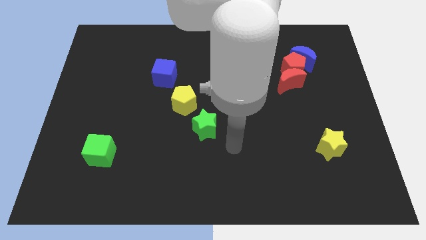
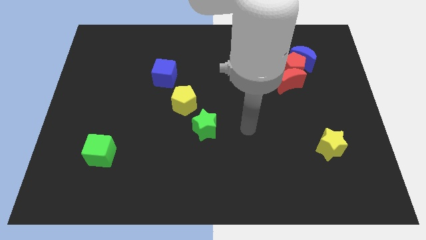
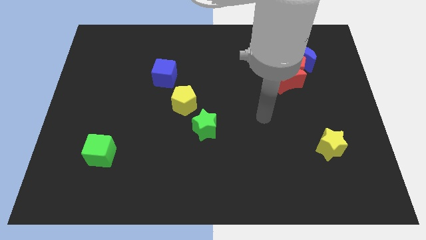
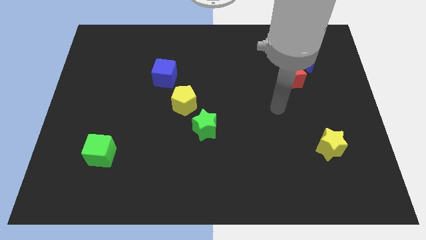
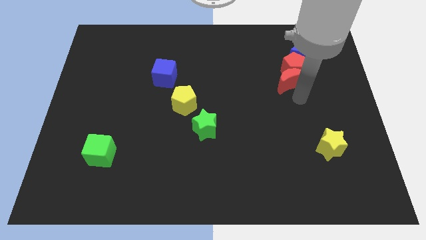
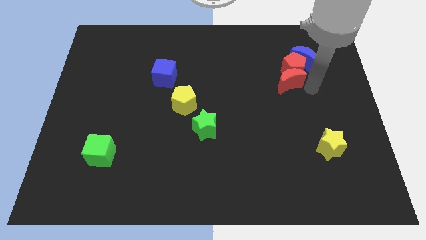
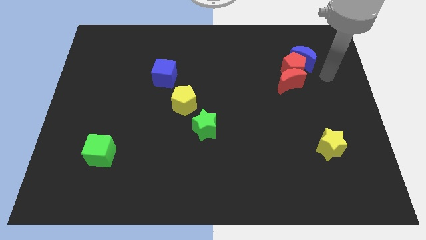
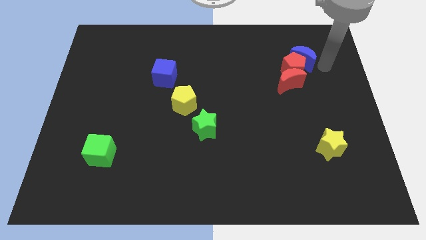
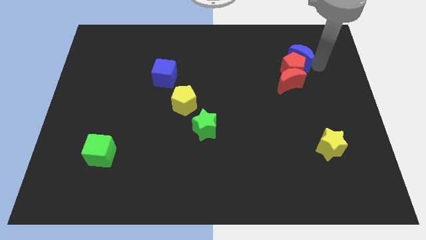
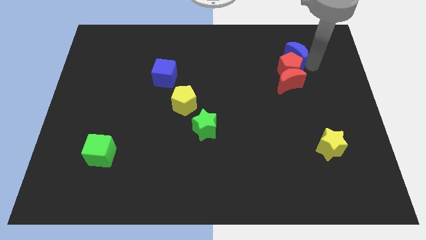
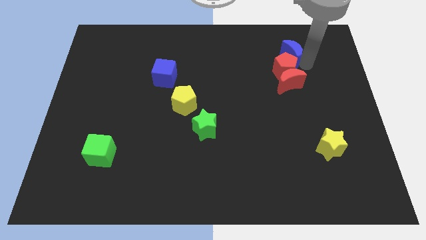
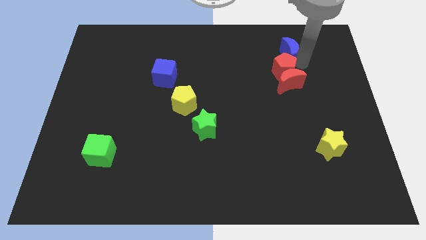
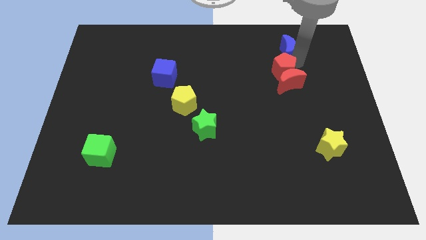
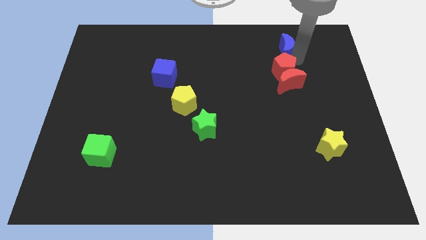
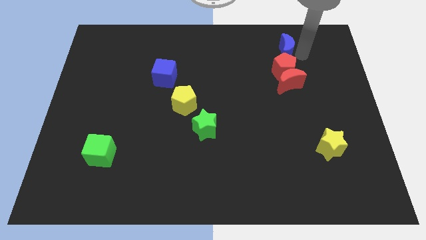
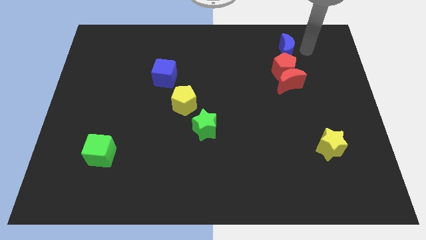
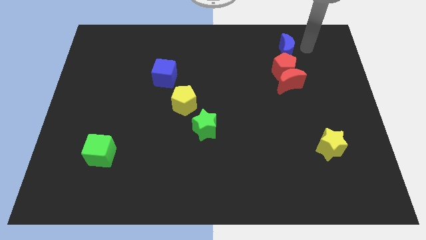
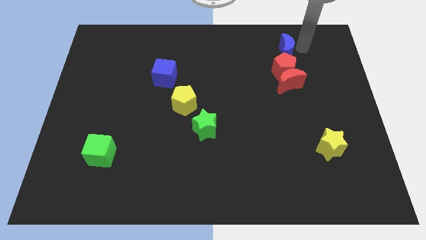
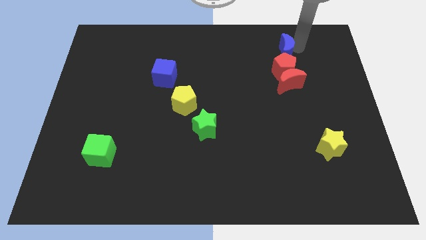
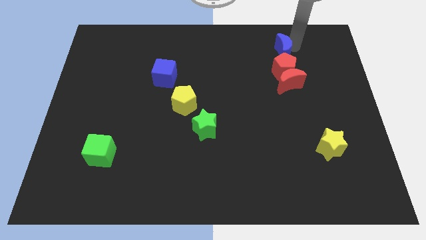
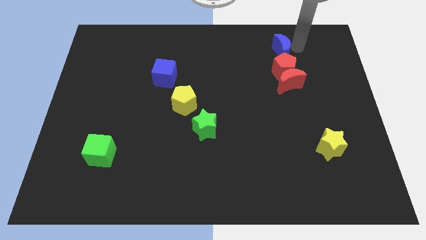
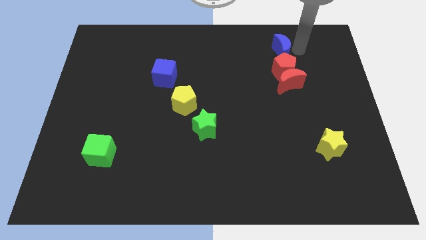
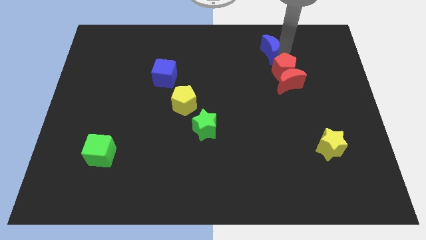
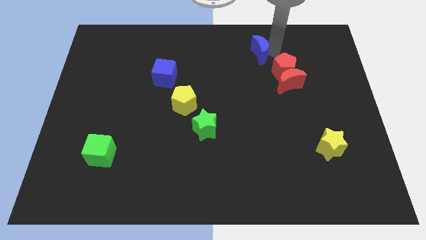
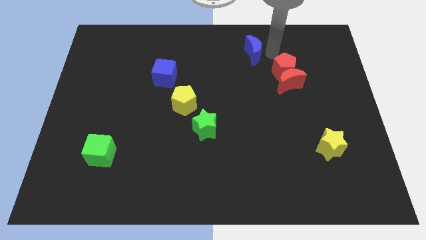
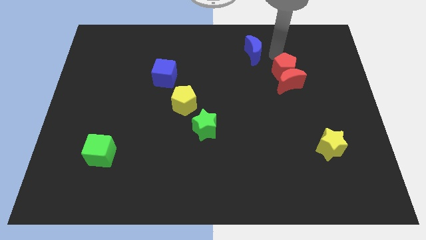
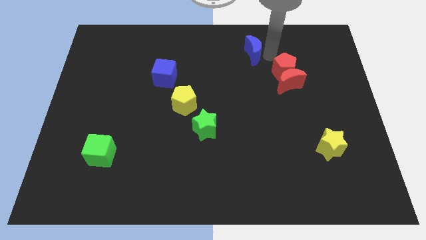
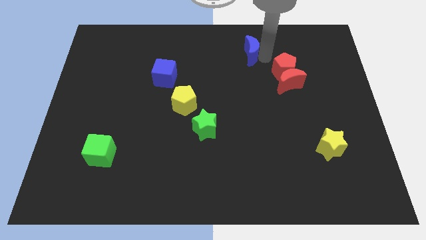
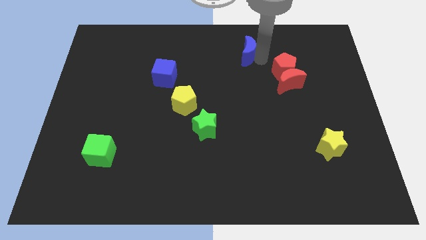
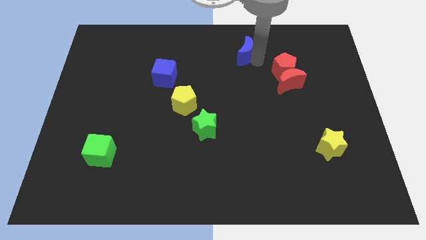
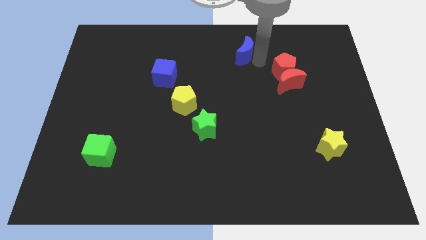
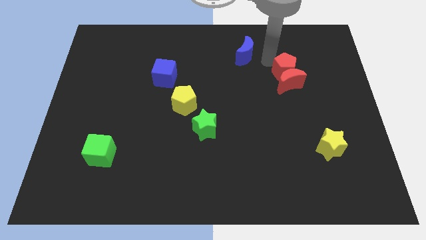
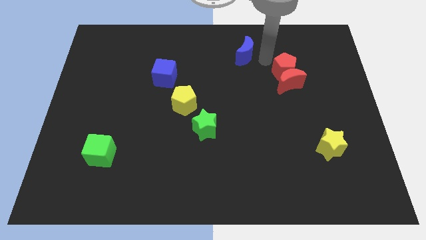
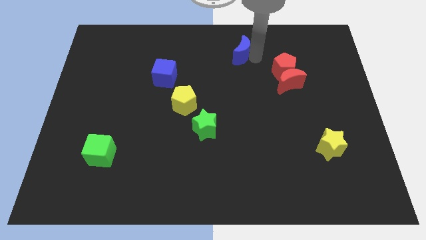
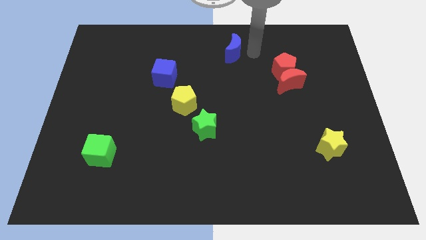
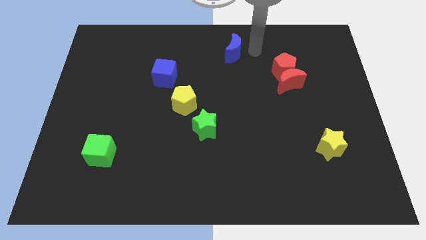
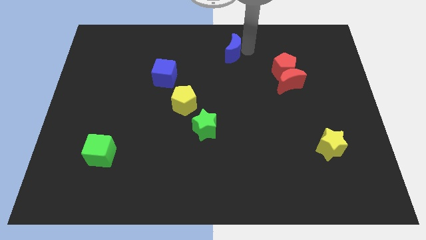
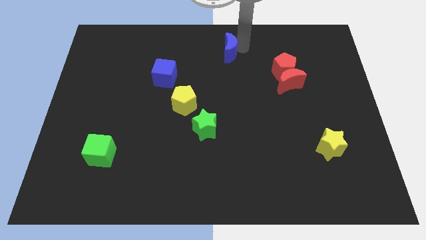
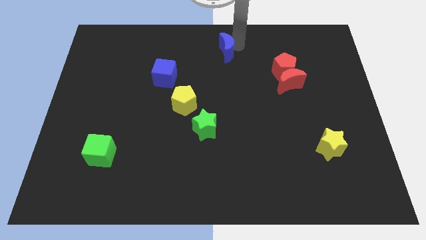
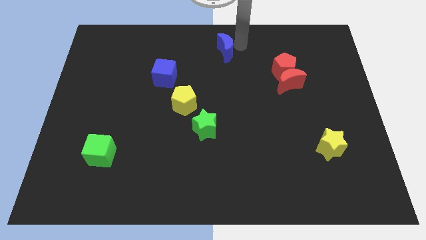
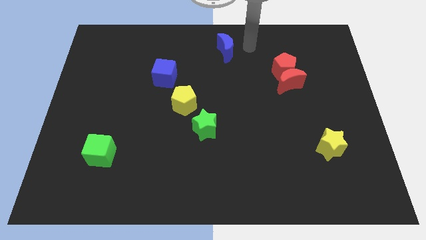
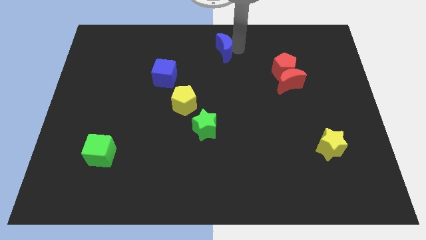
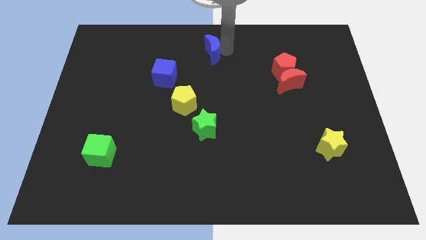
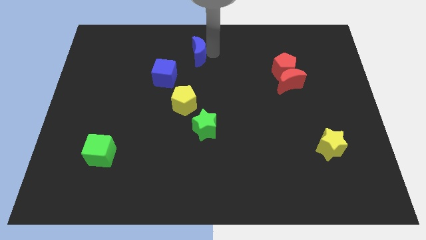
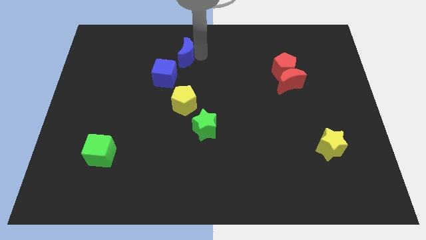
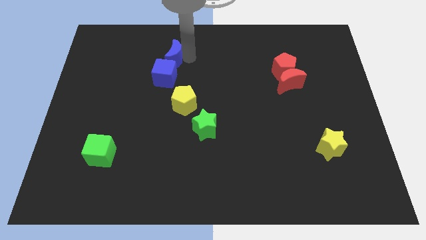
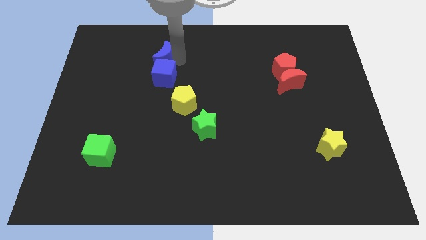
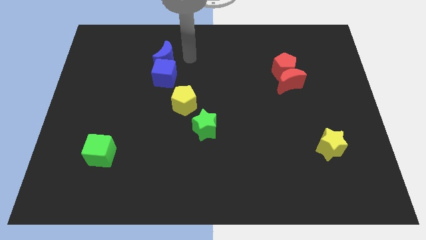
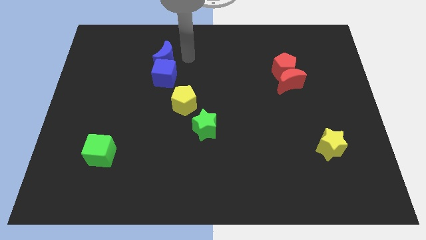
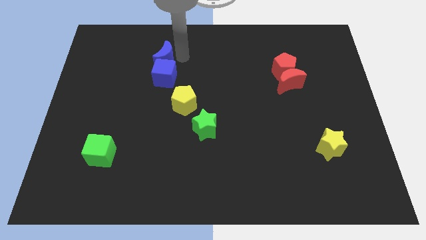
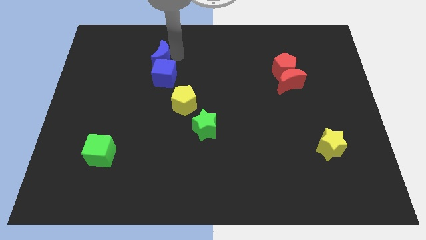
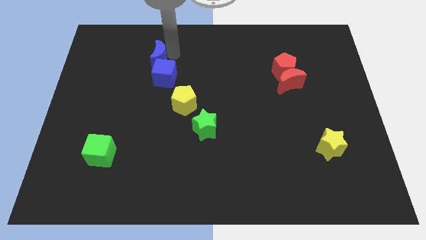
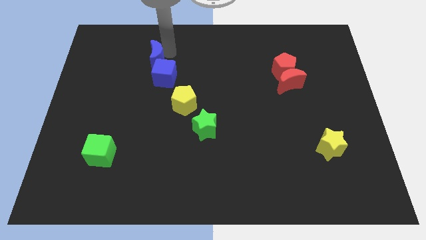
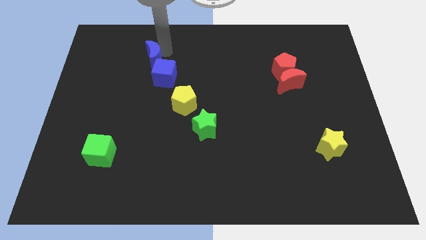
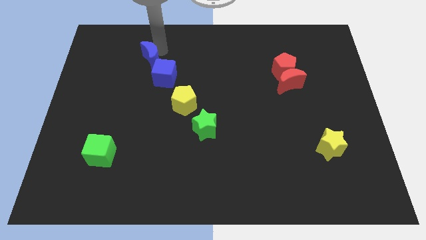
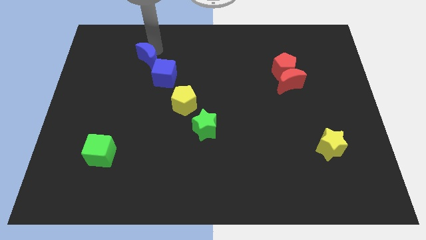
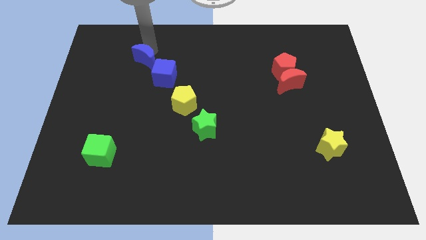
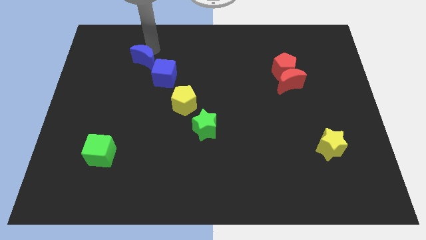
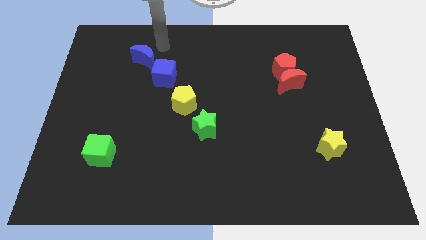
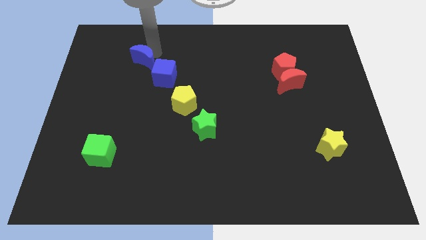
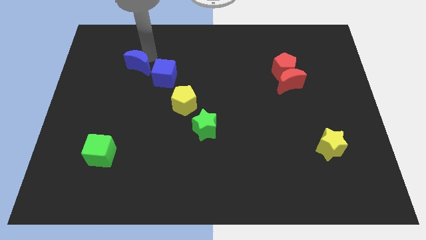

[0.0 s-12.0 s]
slide the blue moon to the left side of the blue cube

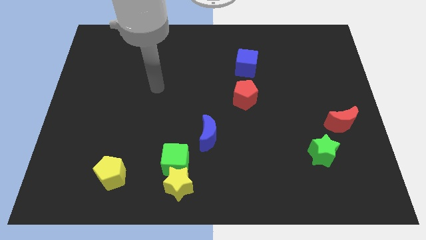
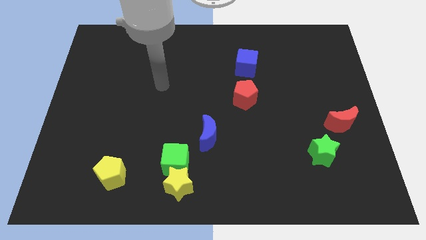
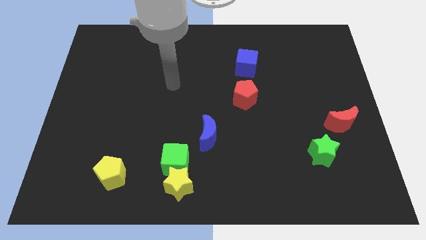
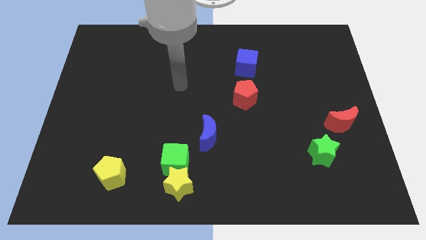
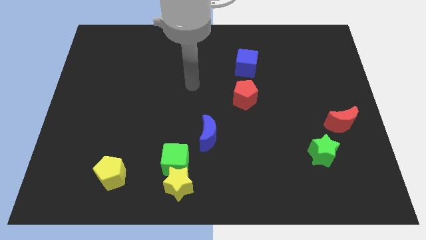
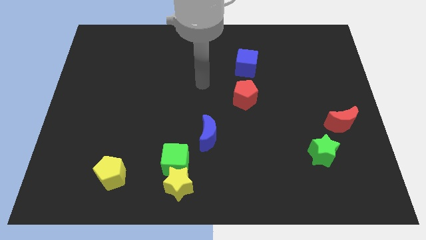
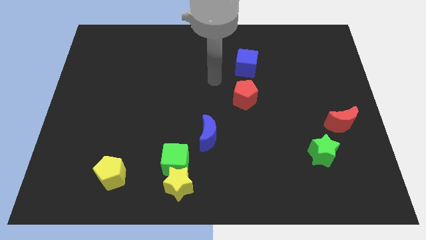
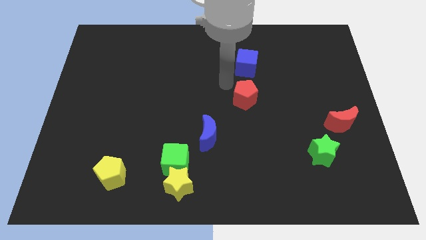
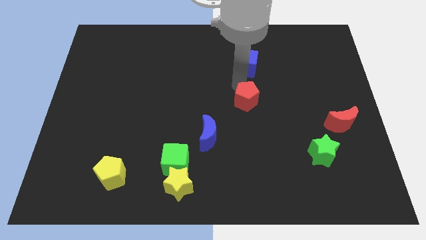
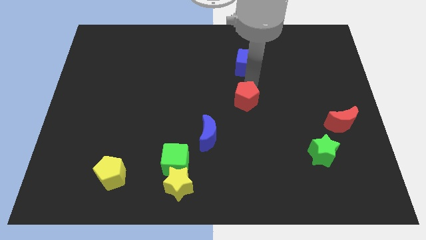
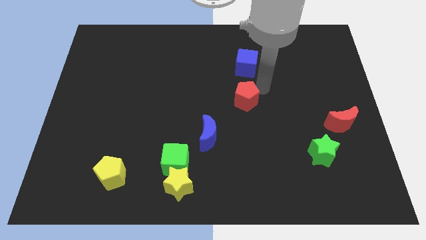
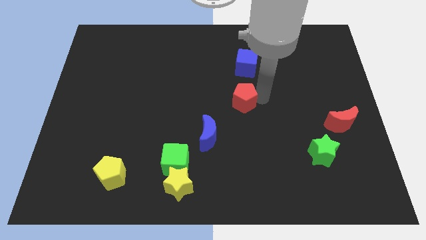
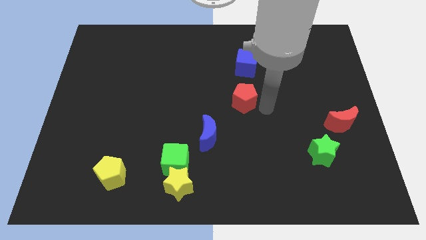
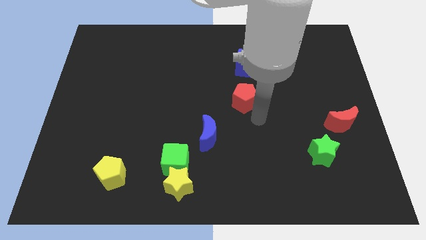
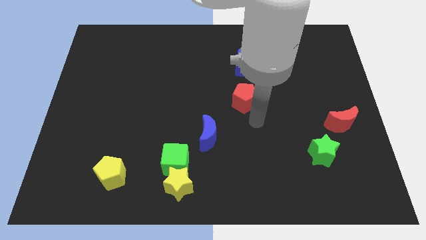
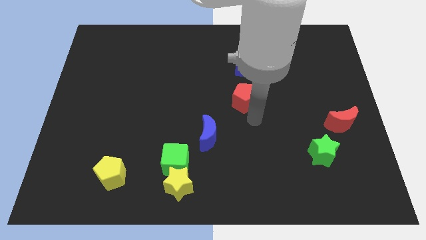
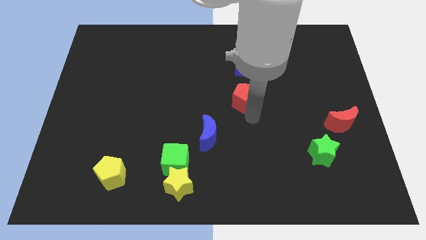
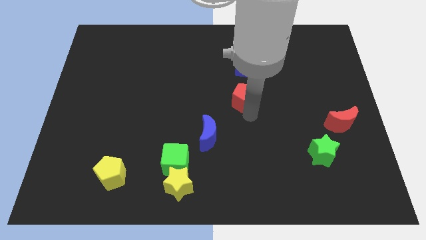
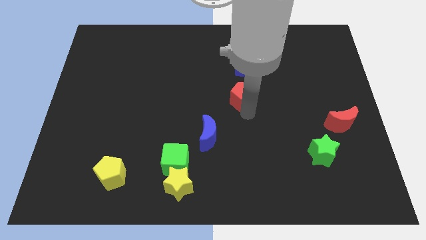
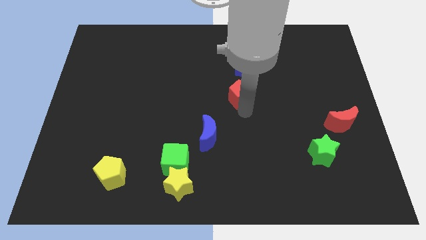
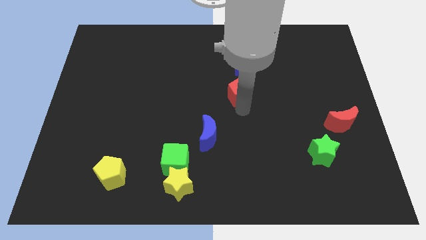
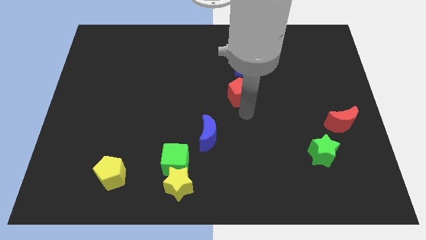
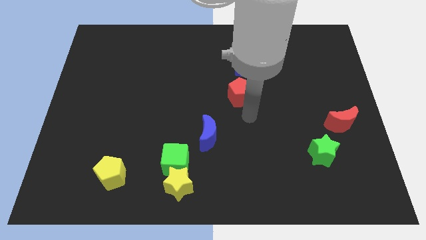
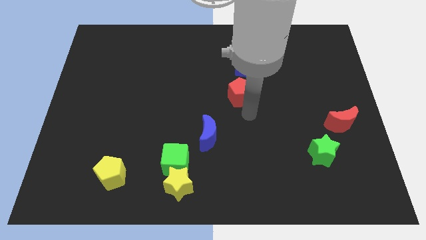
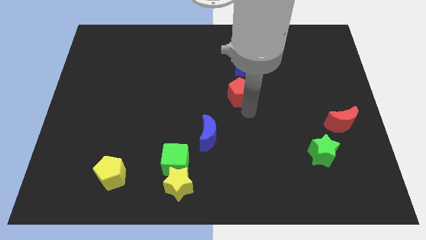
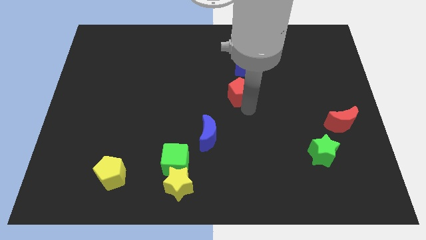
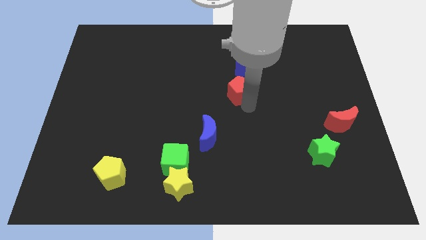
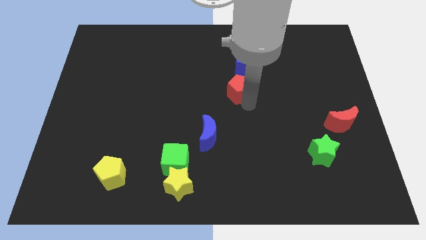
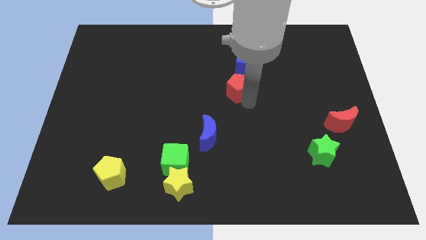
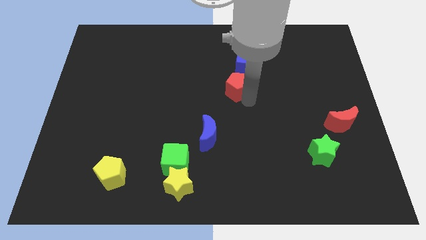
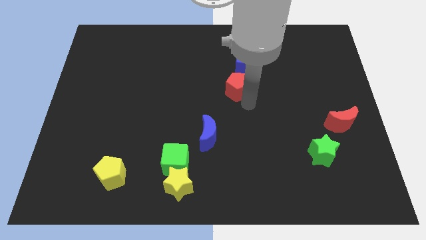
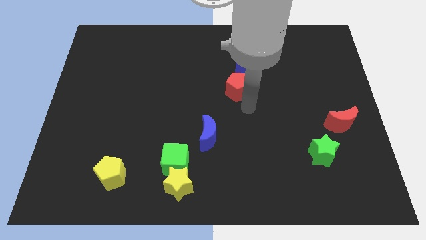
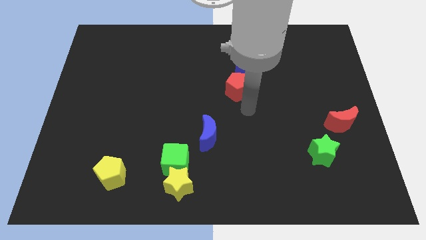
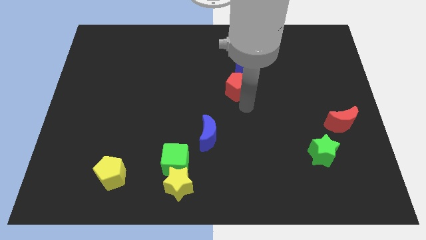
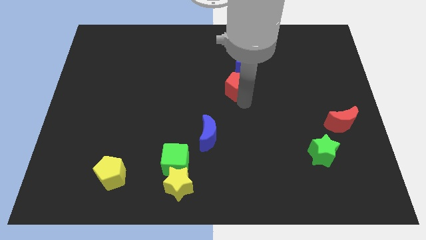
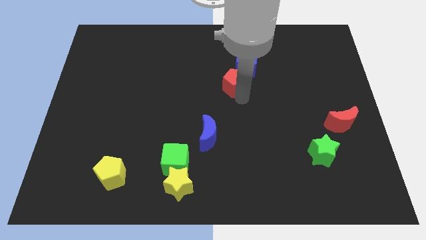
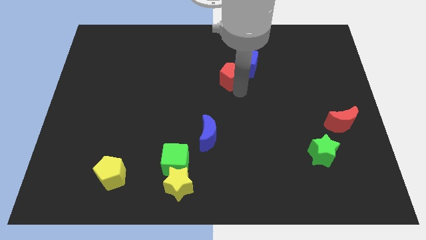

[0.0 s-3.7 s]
slide the red pentagon to the left side of the blue cube
